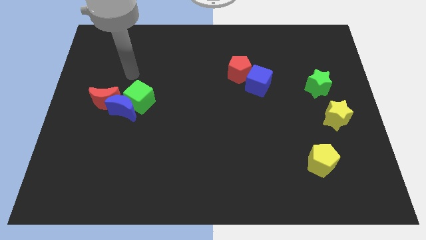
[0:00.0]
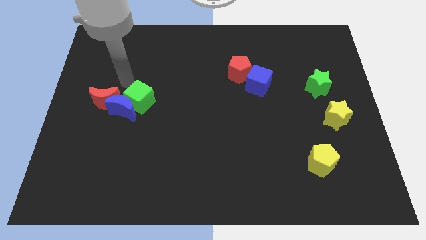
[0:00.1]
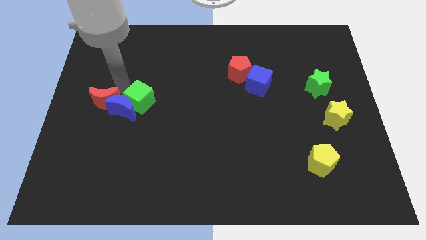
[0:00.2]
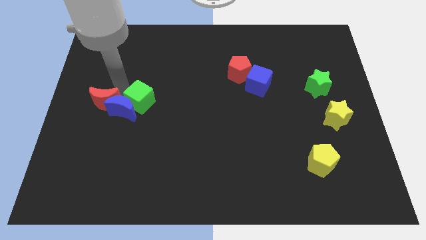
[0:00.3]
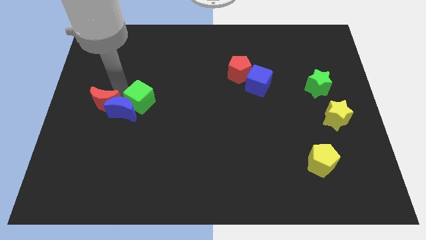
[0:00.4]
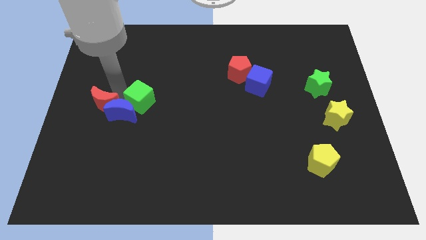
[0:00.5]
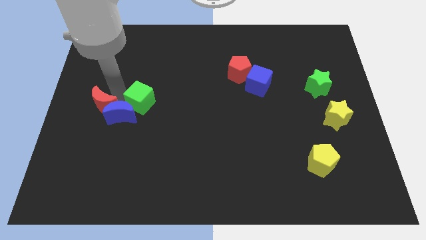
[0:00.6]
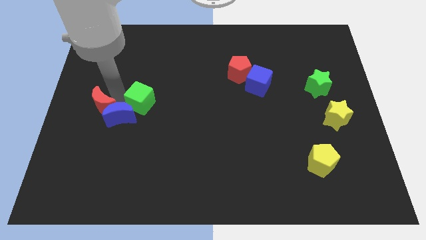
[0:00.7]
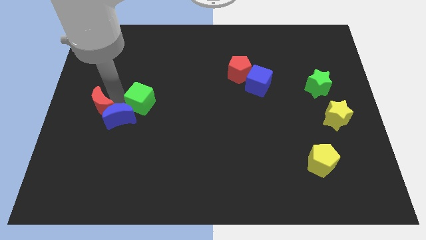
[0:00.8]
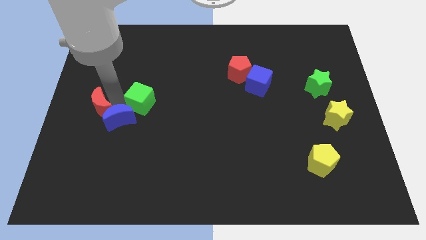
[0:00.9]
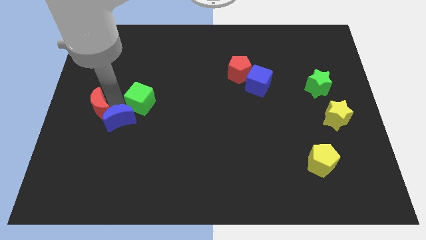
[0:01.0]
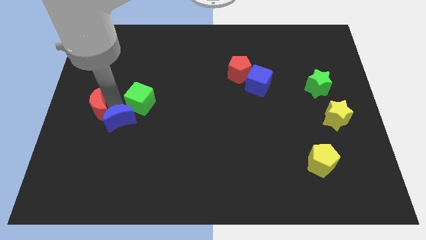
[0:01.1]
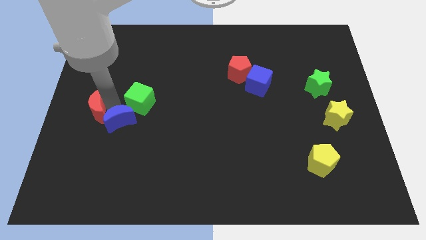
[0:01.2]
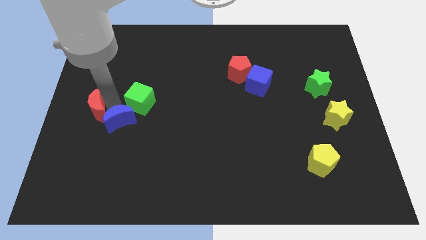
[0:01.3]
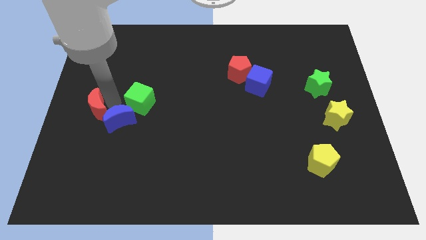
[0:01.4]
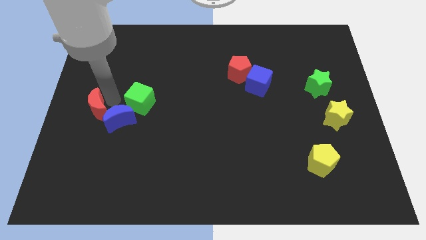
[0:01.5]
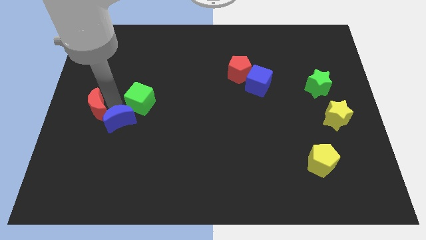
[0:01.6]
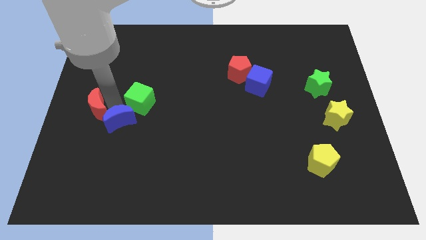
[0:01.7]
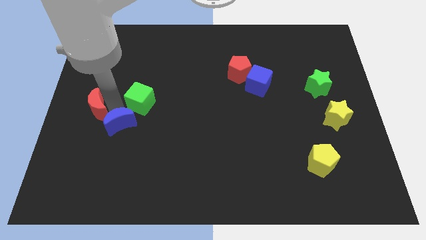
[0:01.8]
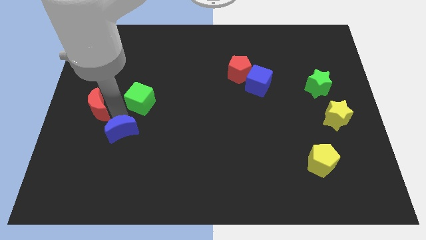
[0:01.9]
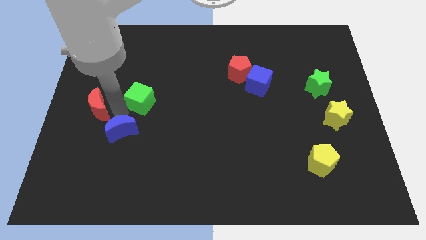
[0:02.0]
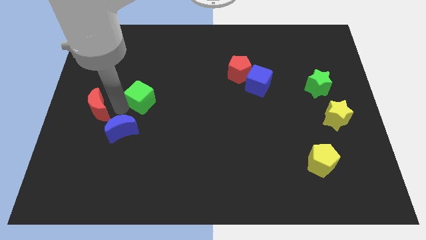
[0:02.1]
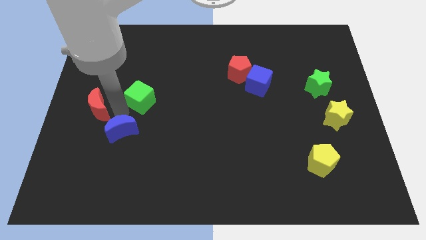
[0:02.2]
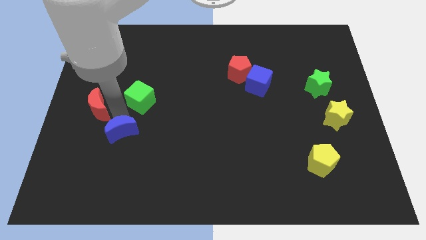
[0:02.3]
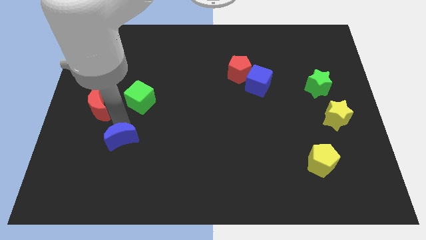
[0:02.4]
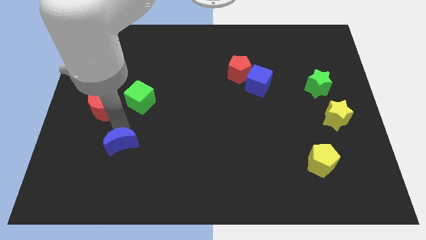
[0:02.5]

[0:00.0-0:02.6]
separate the blue moon from the green cube and red moon

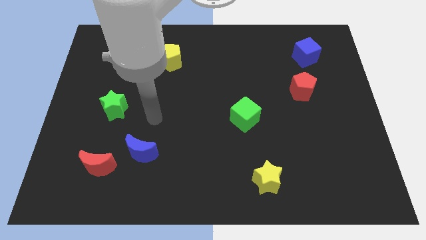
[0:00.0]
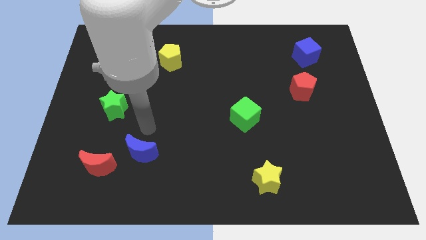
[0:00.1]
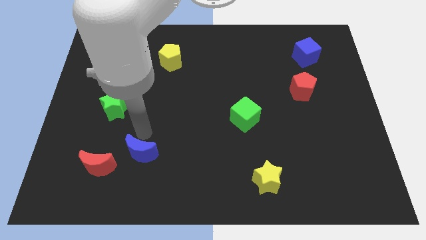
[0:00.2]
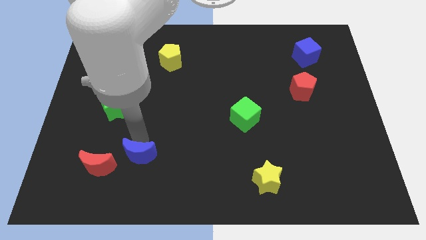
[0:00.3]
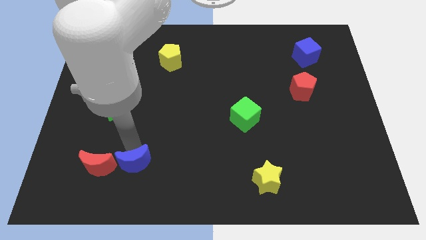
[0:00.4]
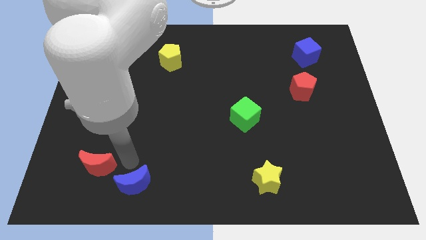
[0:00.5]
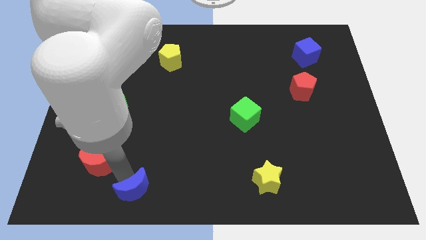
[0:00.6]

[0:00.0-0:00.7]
move the red moon away from the blue moon

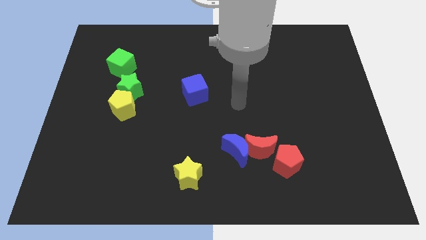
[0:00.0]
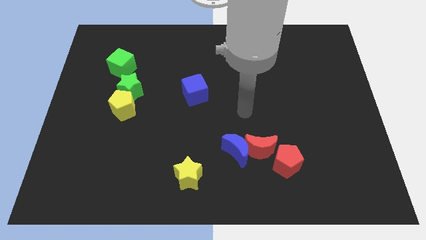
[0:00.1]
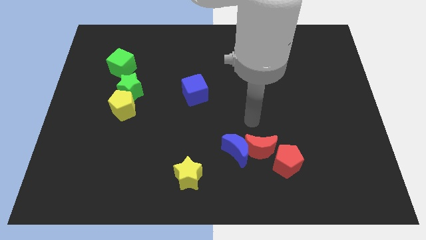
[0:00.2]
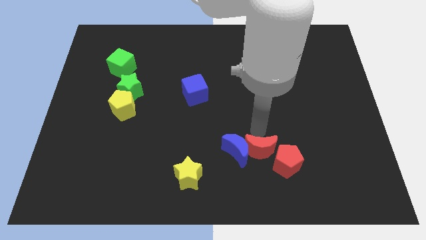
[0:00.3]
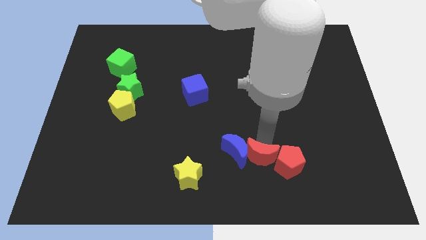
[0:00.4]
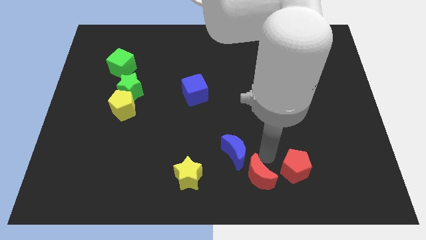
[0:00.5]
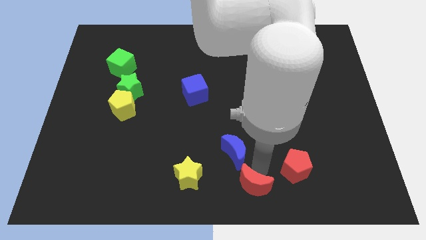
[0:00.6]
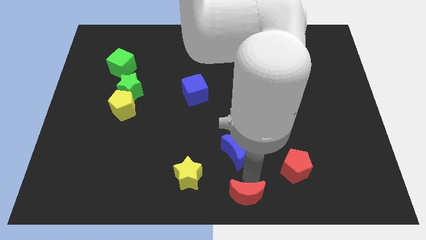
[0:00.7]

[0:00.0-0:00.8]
separate the blue moon from the red moon

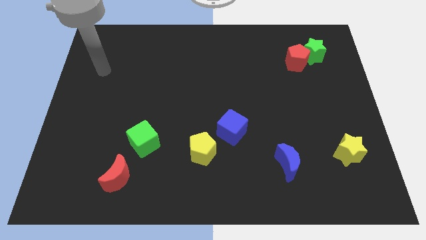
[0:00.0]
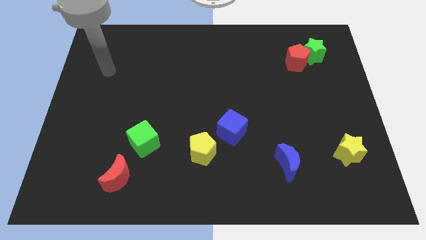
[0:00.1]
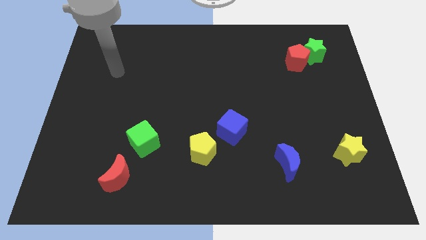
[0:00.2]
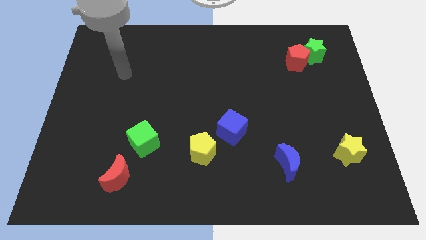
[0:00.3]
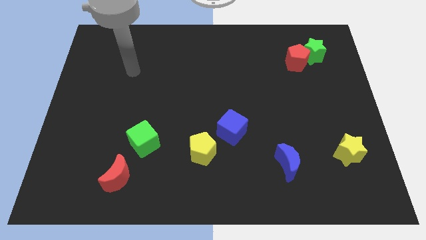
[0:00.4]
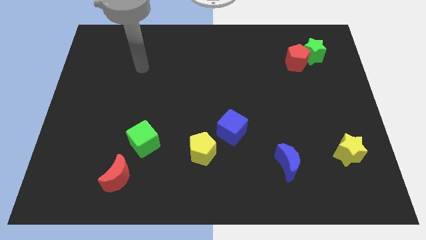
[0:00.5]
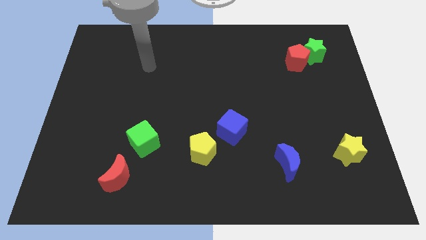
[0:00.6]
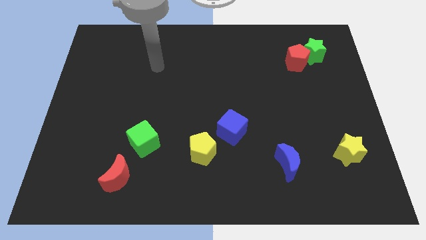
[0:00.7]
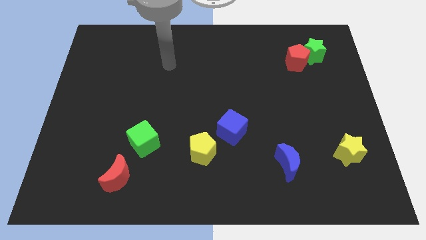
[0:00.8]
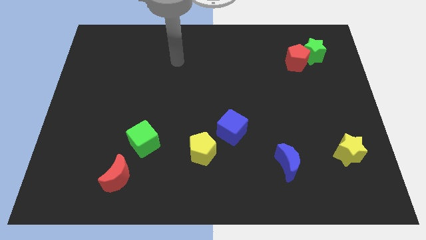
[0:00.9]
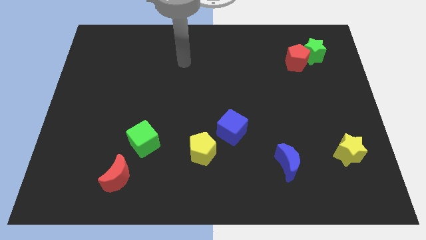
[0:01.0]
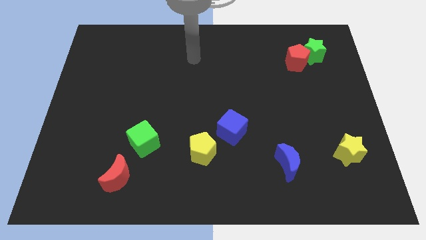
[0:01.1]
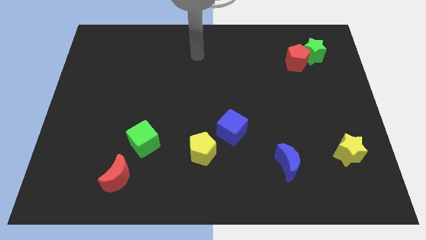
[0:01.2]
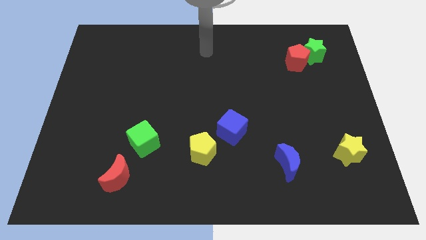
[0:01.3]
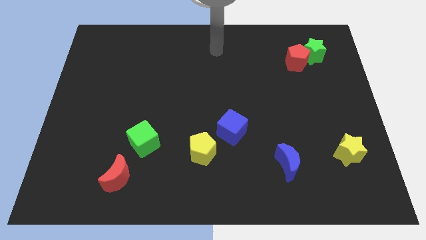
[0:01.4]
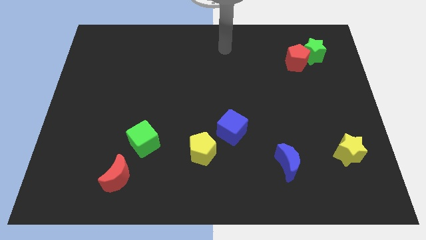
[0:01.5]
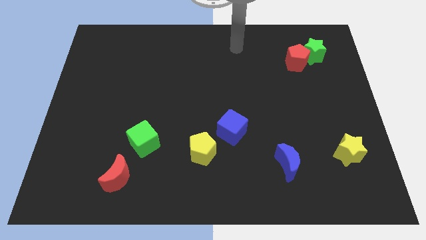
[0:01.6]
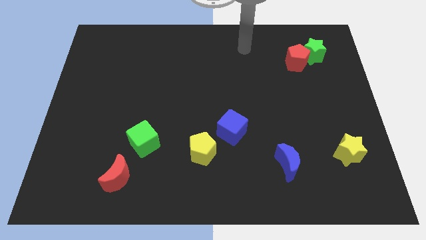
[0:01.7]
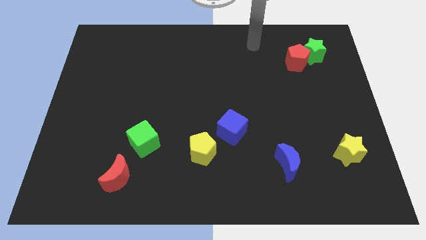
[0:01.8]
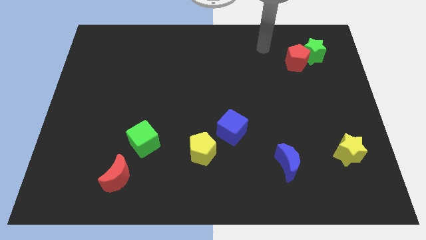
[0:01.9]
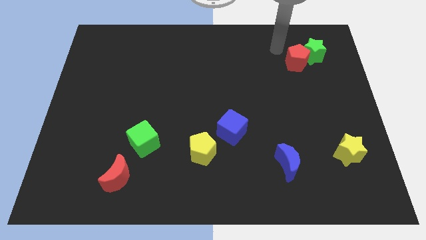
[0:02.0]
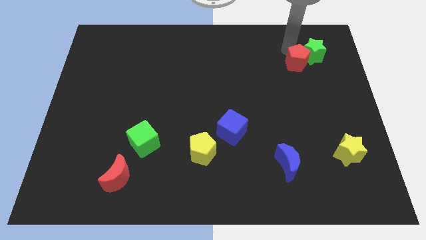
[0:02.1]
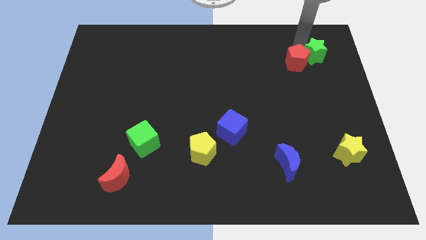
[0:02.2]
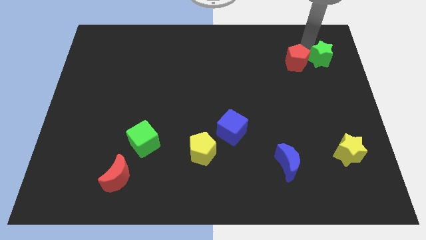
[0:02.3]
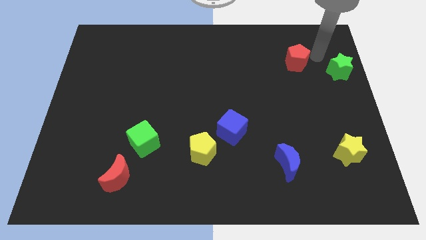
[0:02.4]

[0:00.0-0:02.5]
pull the red pentagon apart from the green star

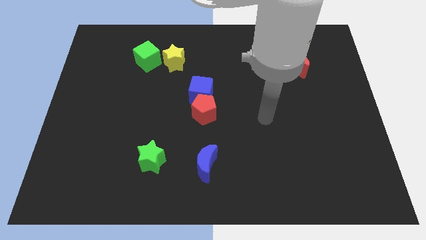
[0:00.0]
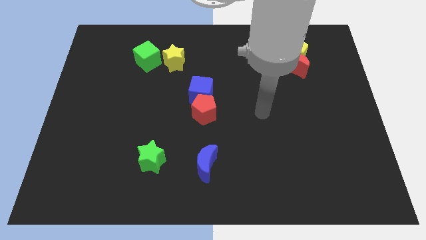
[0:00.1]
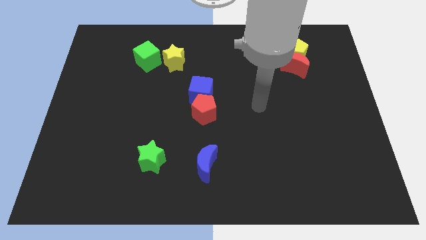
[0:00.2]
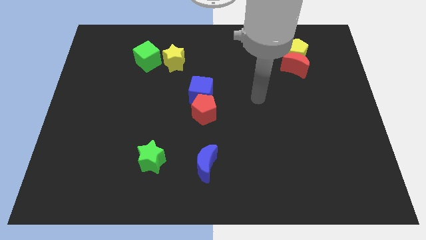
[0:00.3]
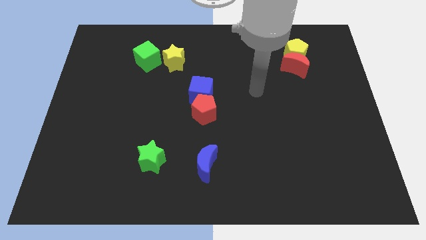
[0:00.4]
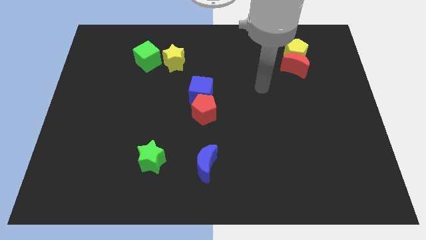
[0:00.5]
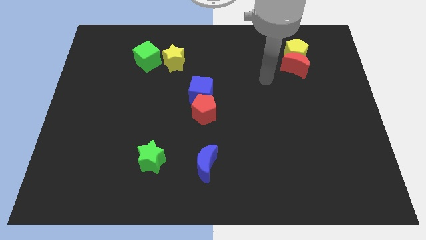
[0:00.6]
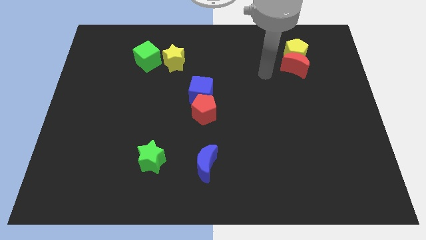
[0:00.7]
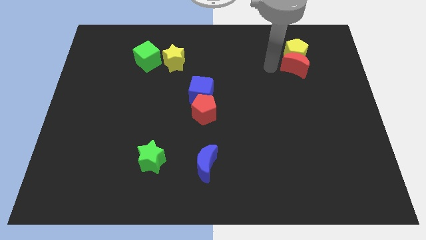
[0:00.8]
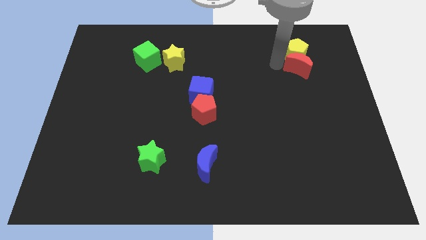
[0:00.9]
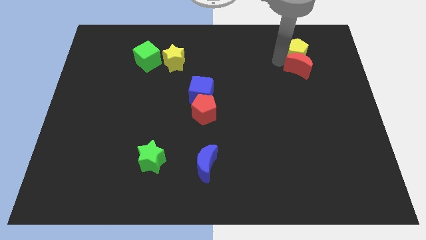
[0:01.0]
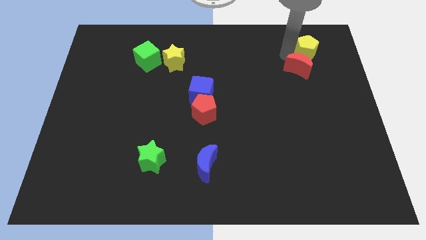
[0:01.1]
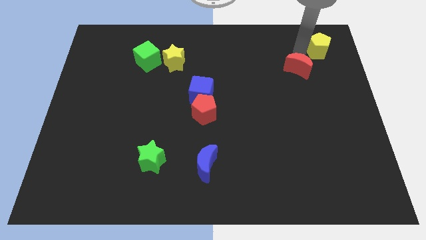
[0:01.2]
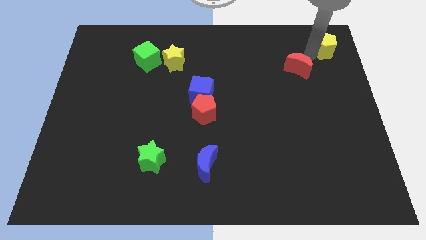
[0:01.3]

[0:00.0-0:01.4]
separate the red moon from the yellow pentagon

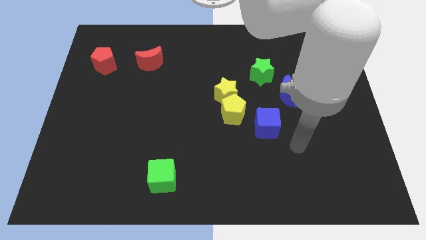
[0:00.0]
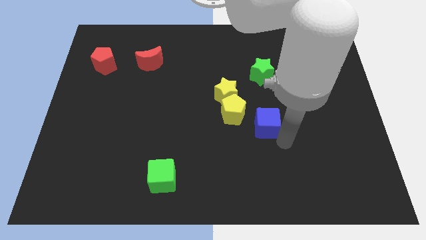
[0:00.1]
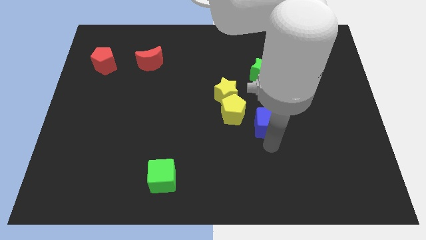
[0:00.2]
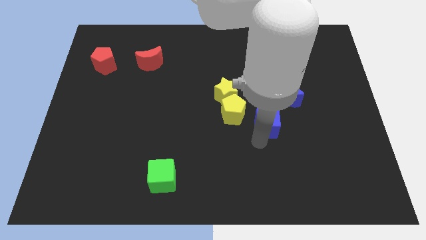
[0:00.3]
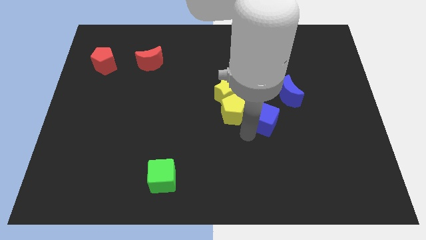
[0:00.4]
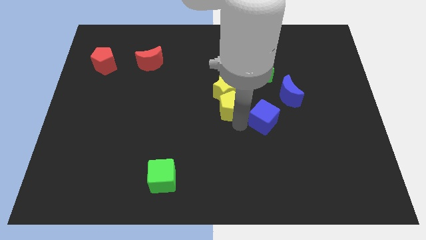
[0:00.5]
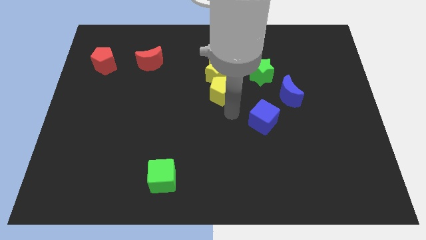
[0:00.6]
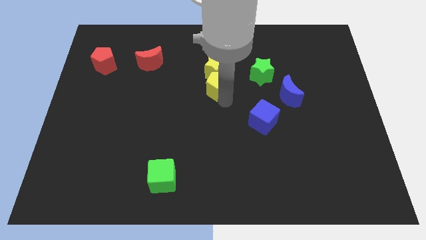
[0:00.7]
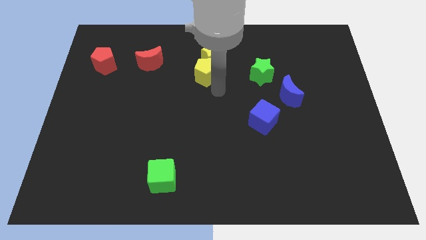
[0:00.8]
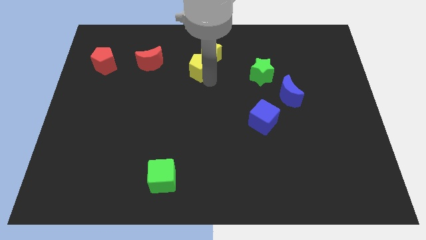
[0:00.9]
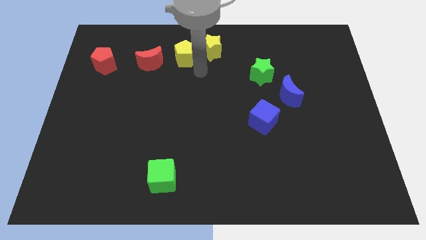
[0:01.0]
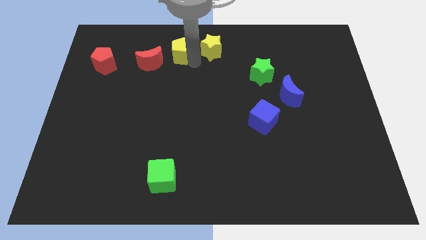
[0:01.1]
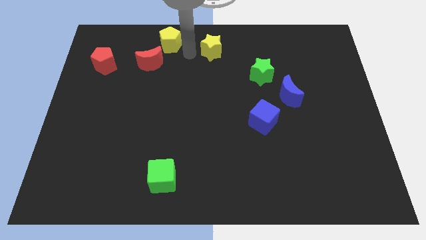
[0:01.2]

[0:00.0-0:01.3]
pull the yellow star apart from the yellow pentagon
